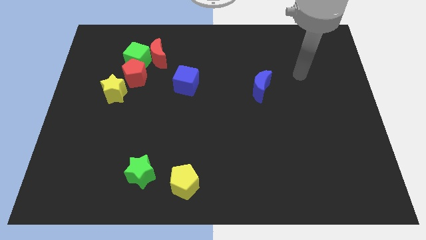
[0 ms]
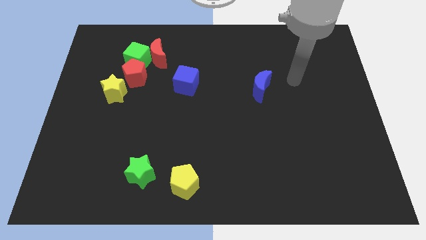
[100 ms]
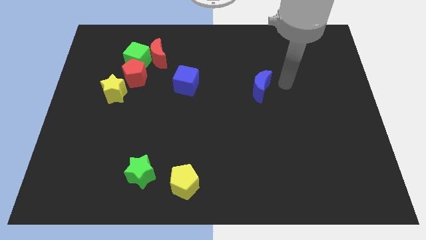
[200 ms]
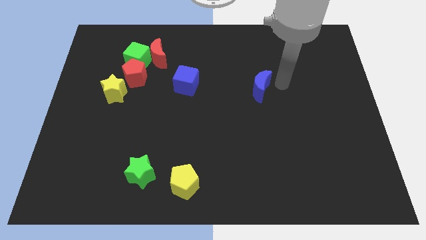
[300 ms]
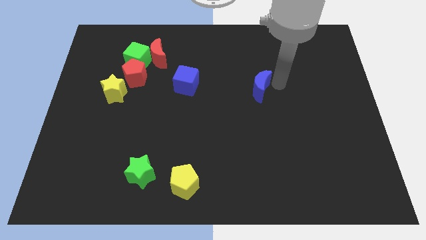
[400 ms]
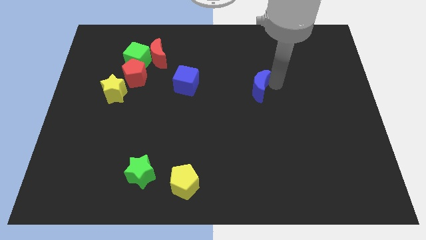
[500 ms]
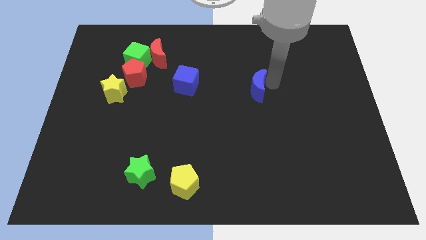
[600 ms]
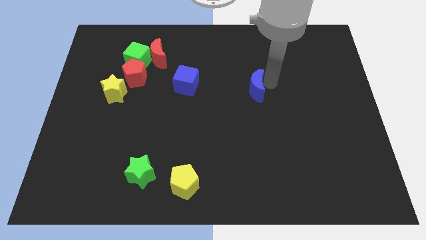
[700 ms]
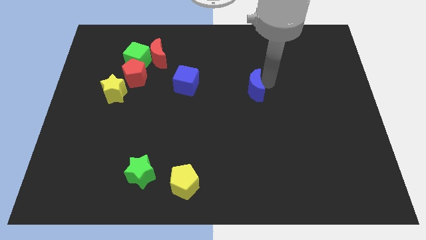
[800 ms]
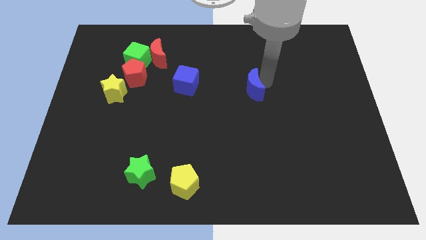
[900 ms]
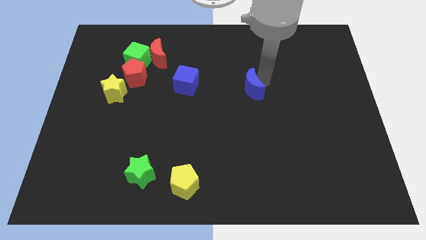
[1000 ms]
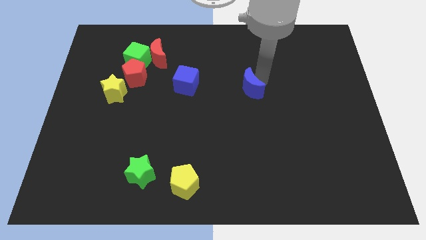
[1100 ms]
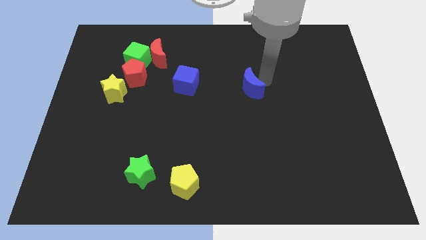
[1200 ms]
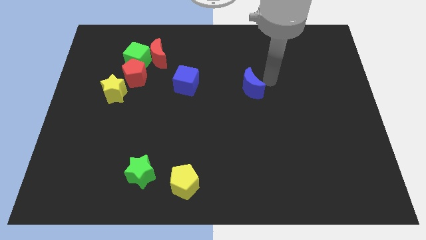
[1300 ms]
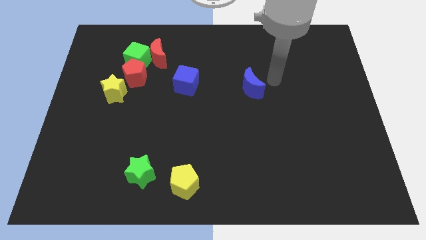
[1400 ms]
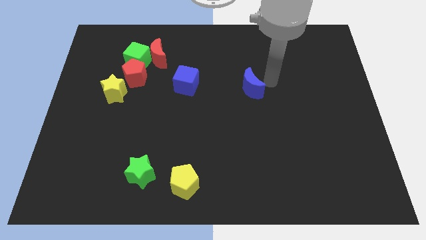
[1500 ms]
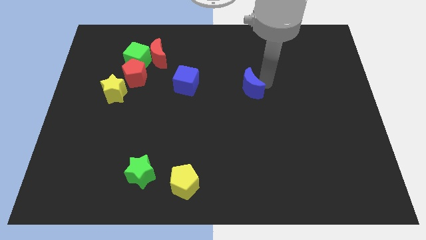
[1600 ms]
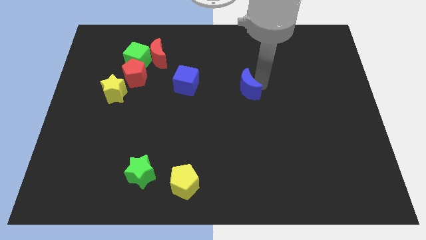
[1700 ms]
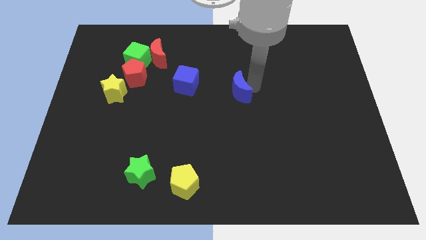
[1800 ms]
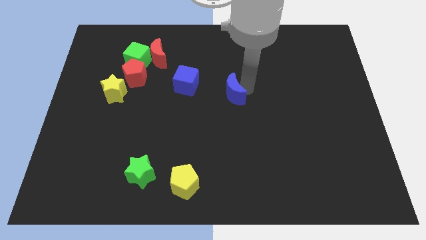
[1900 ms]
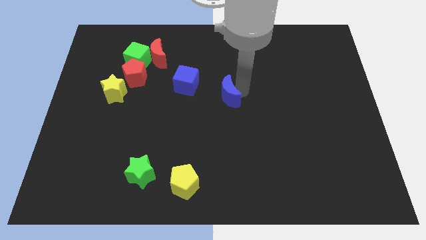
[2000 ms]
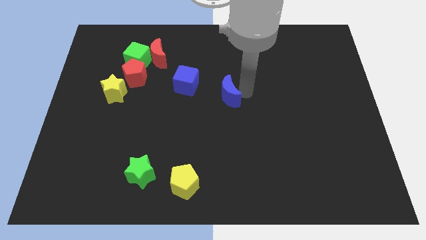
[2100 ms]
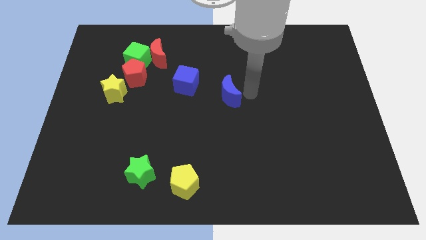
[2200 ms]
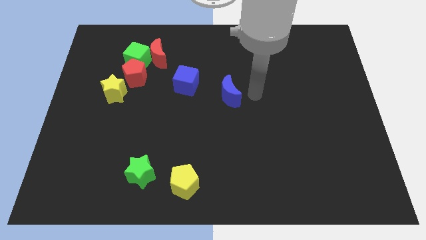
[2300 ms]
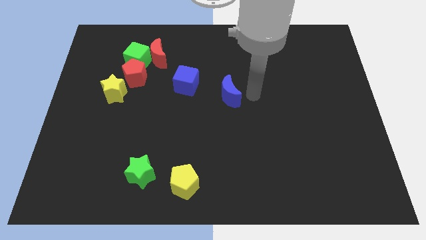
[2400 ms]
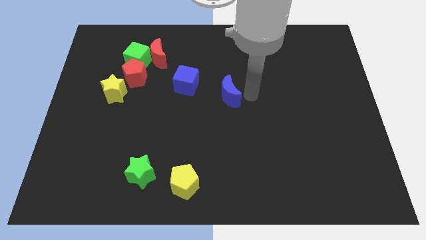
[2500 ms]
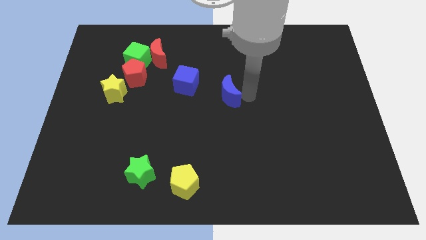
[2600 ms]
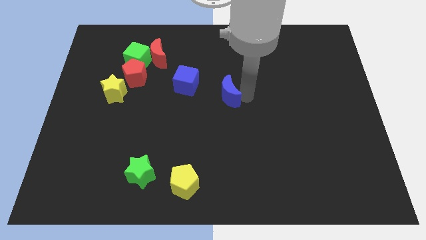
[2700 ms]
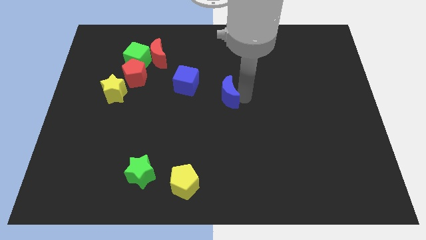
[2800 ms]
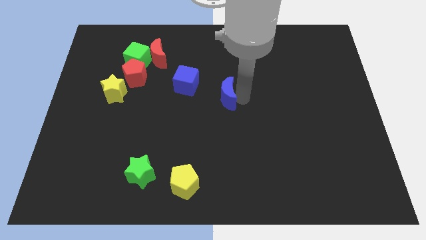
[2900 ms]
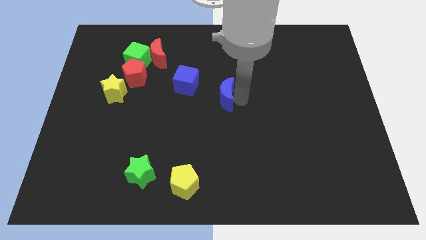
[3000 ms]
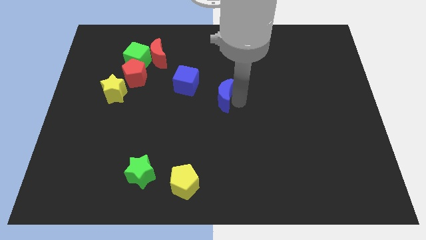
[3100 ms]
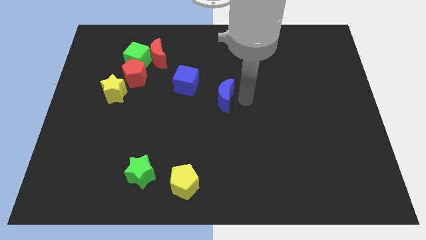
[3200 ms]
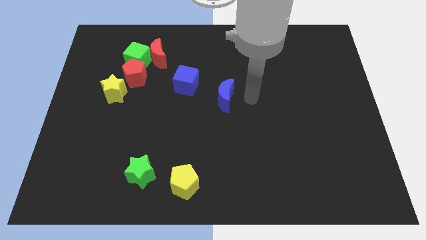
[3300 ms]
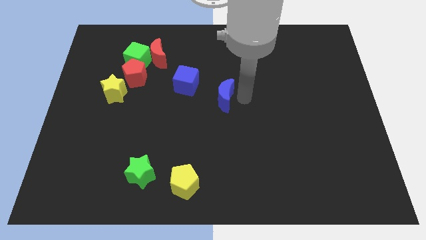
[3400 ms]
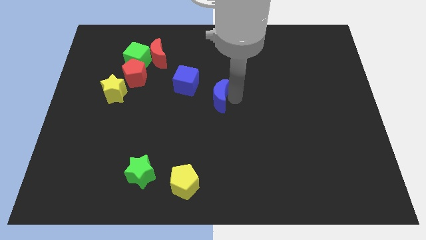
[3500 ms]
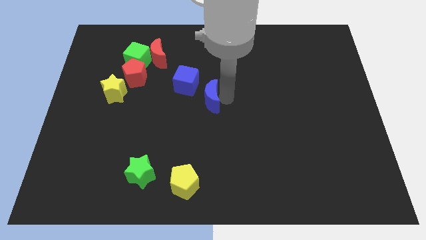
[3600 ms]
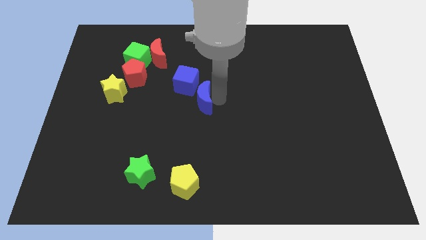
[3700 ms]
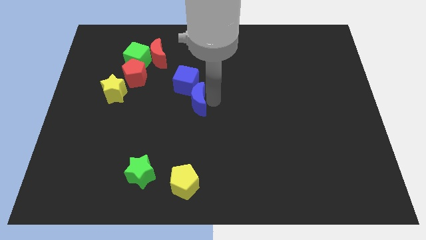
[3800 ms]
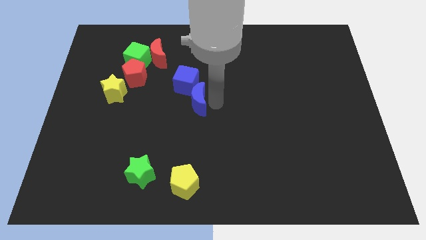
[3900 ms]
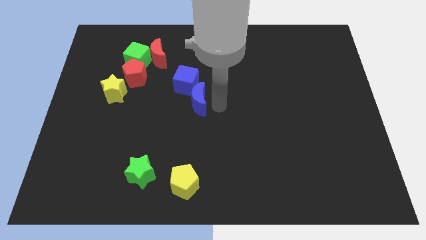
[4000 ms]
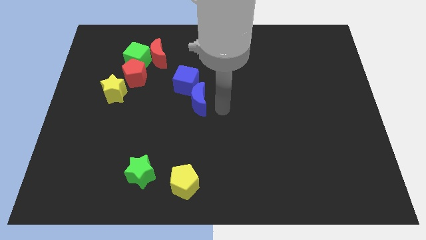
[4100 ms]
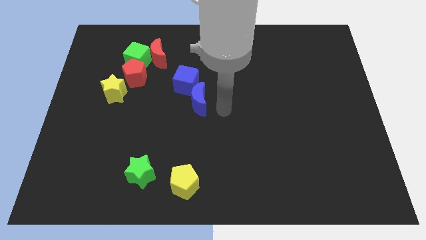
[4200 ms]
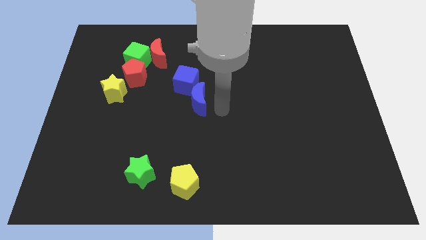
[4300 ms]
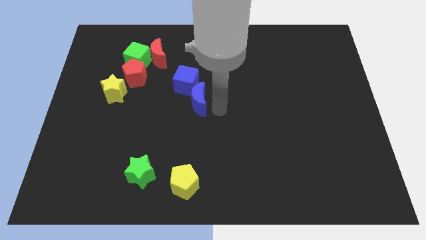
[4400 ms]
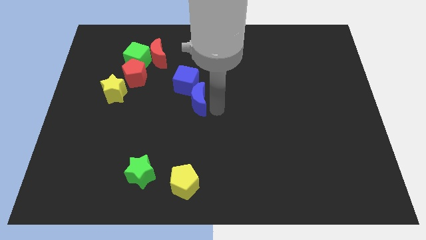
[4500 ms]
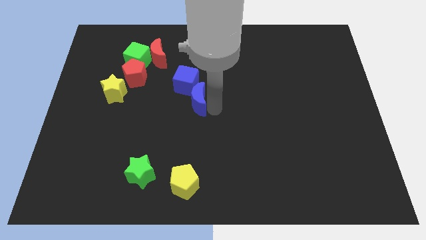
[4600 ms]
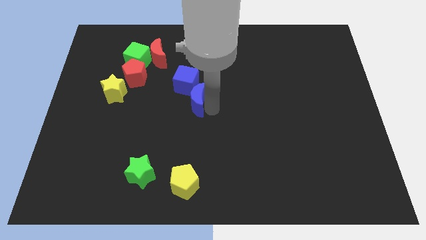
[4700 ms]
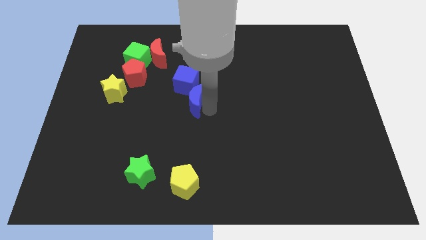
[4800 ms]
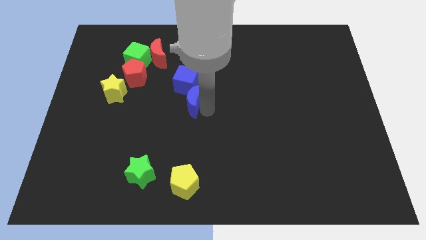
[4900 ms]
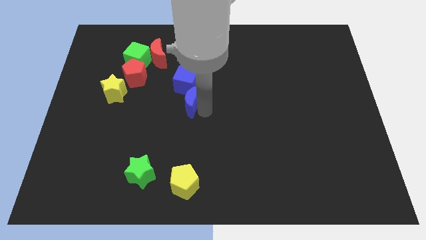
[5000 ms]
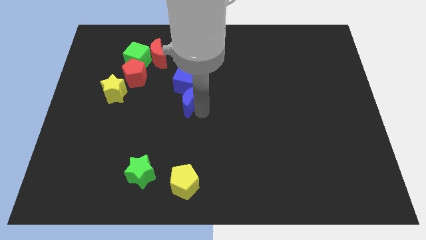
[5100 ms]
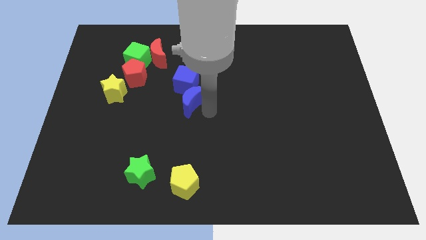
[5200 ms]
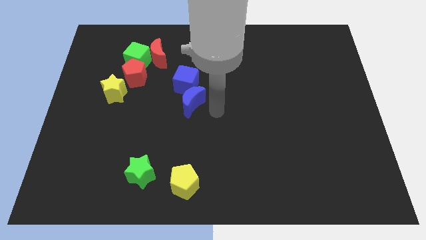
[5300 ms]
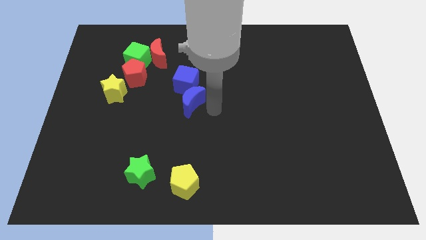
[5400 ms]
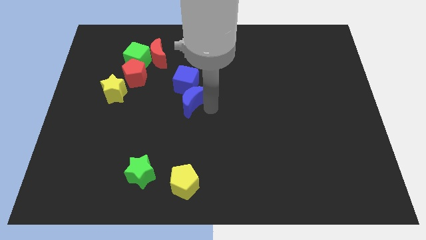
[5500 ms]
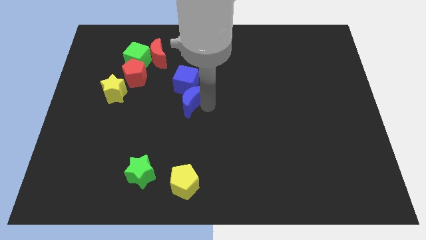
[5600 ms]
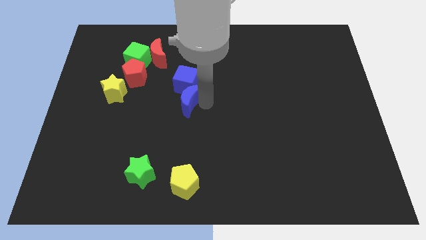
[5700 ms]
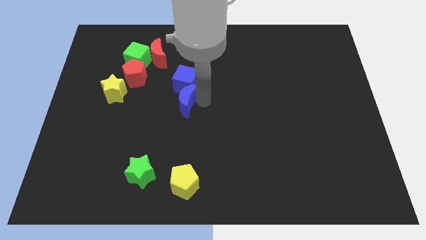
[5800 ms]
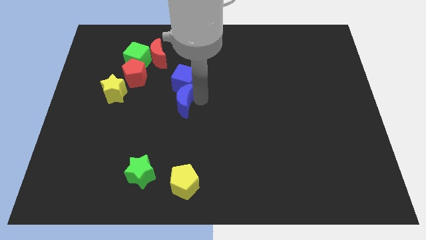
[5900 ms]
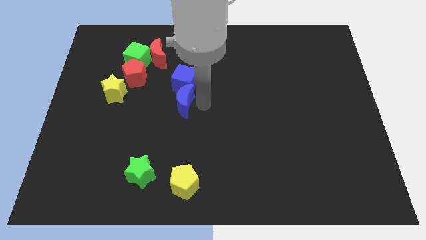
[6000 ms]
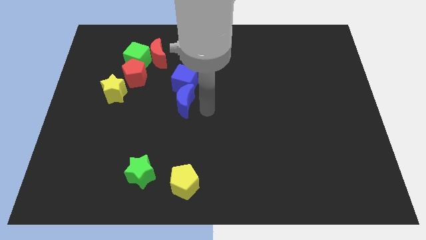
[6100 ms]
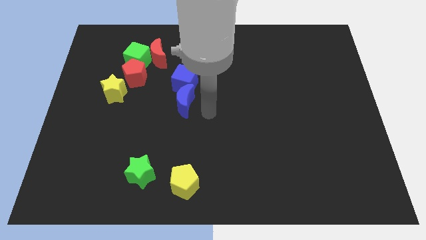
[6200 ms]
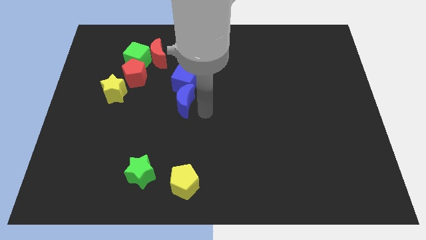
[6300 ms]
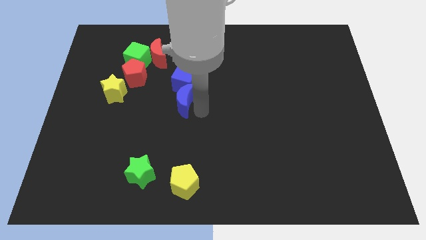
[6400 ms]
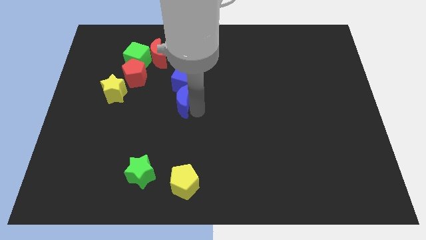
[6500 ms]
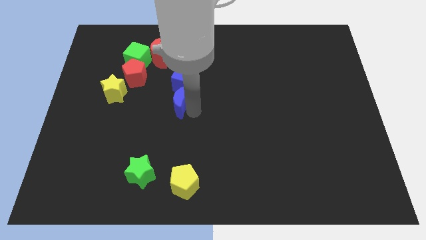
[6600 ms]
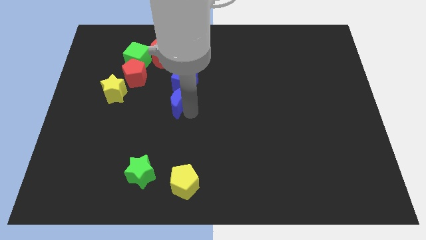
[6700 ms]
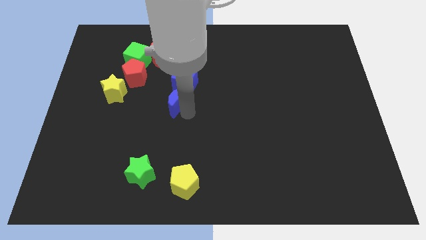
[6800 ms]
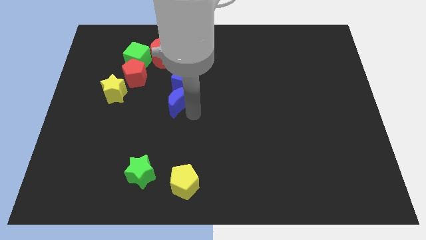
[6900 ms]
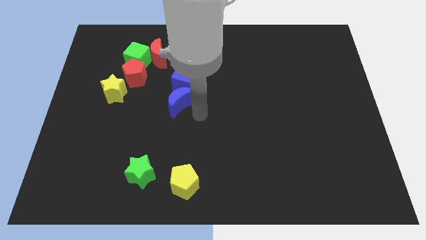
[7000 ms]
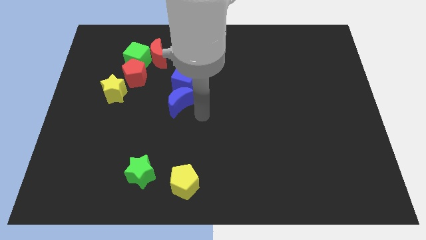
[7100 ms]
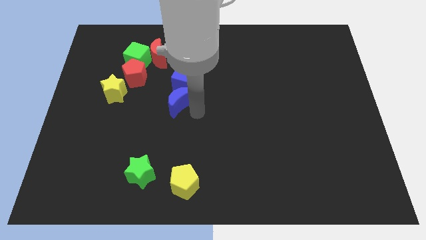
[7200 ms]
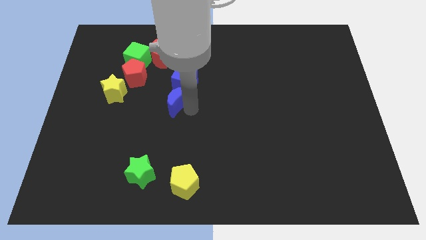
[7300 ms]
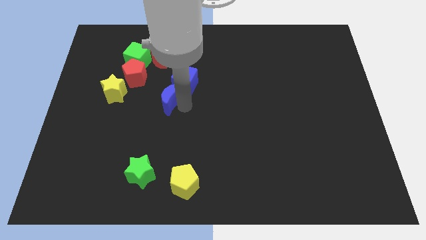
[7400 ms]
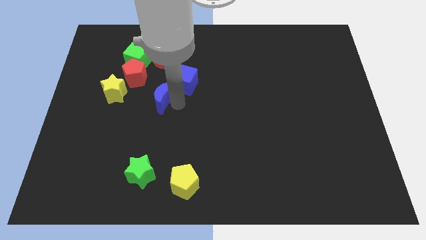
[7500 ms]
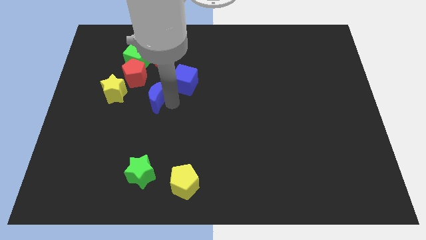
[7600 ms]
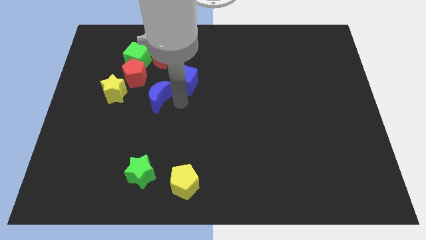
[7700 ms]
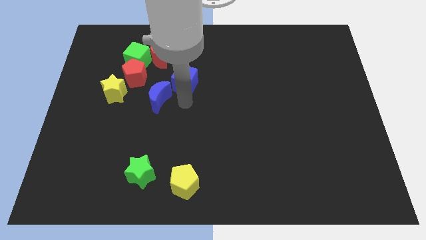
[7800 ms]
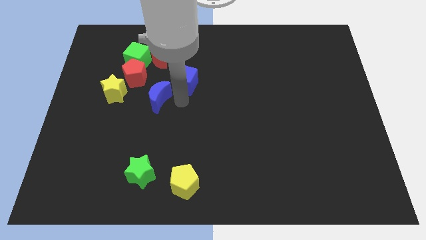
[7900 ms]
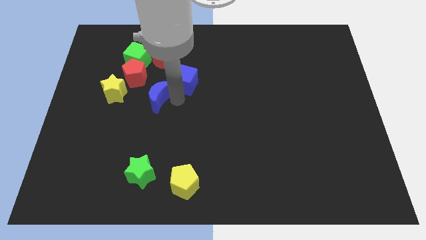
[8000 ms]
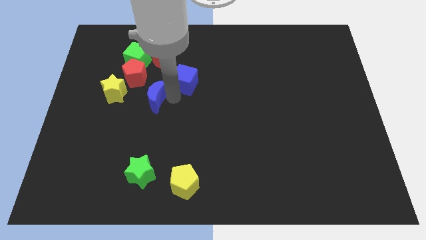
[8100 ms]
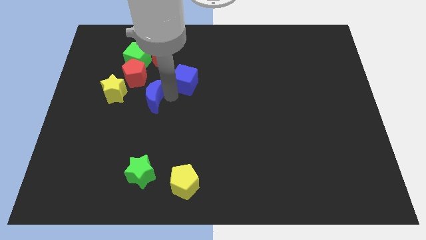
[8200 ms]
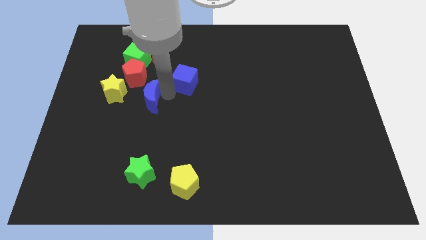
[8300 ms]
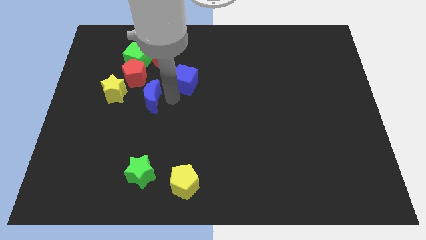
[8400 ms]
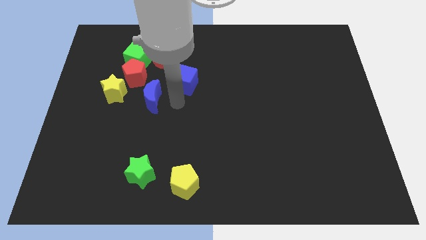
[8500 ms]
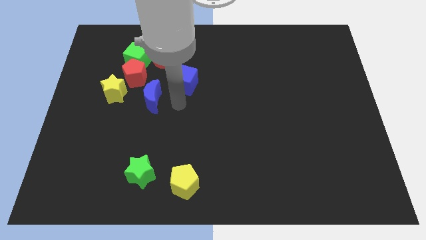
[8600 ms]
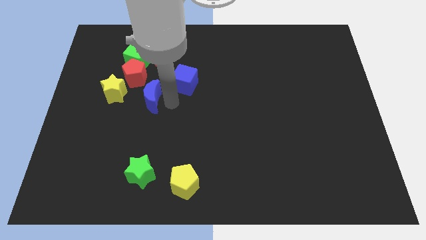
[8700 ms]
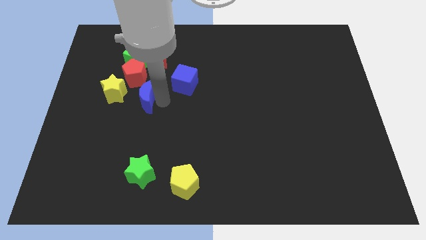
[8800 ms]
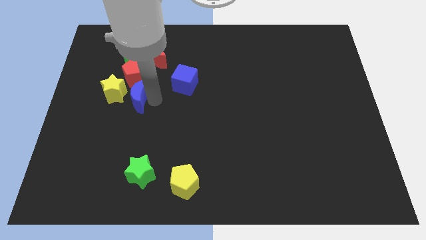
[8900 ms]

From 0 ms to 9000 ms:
move the blue moon to the yellow star
